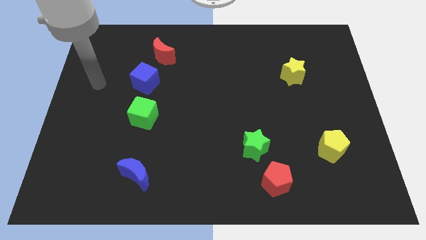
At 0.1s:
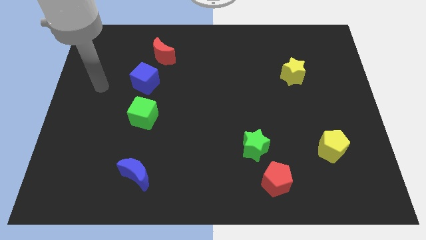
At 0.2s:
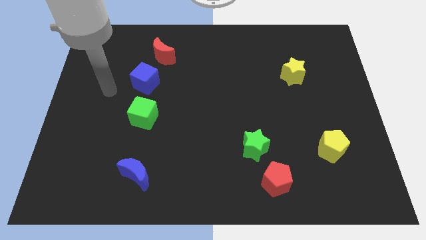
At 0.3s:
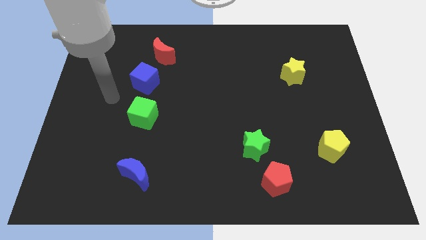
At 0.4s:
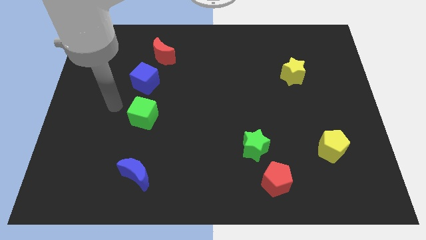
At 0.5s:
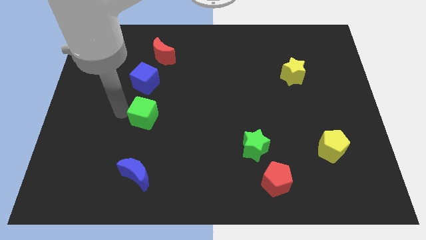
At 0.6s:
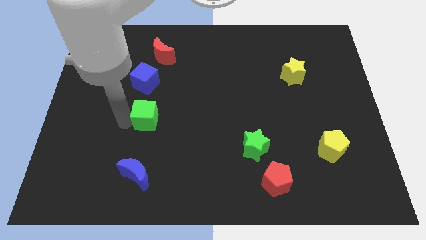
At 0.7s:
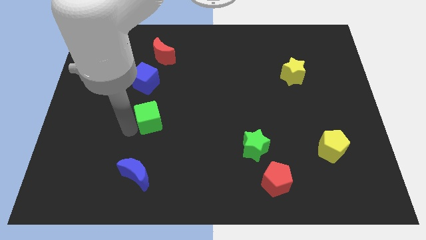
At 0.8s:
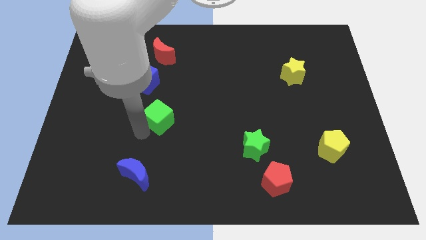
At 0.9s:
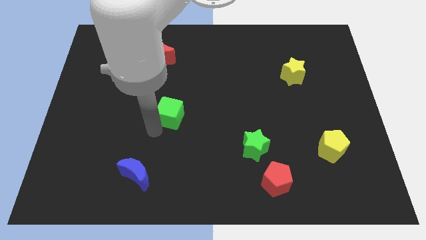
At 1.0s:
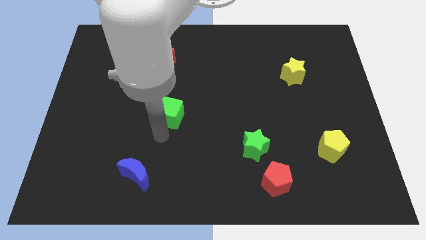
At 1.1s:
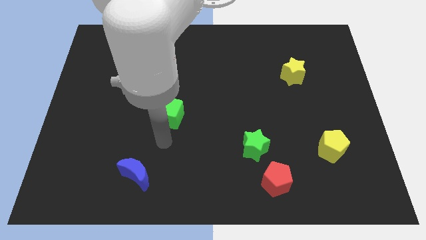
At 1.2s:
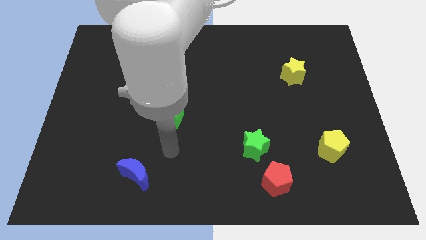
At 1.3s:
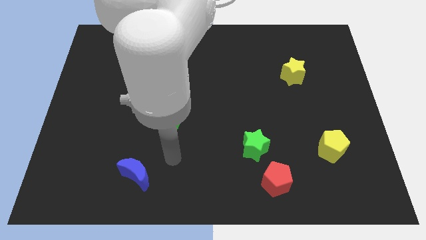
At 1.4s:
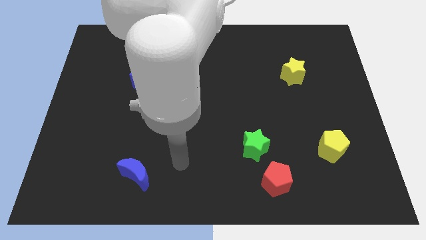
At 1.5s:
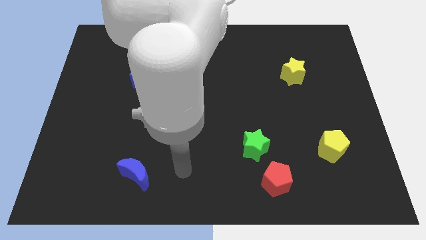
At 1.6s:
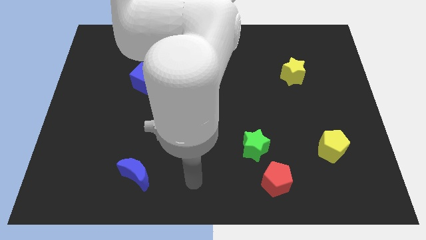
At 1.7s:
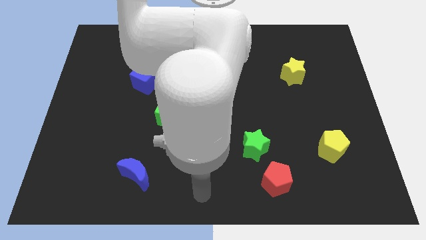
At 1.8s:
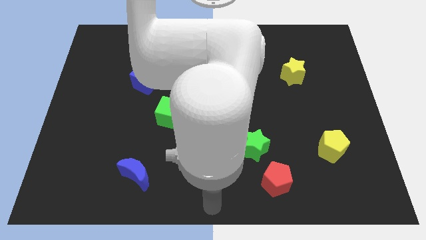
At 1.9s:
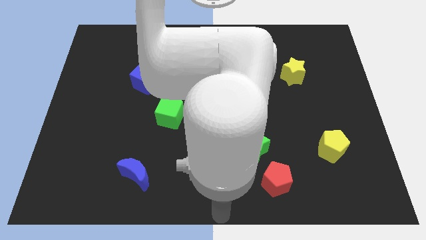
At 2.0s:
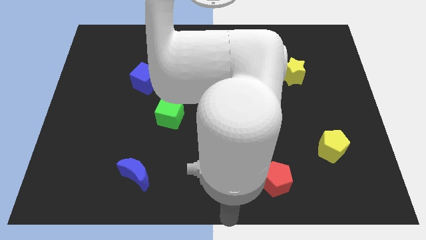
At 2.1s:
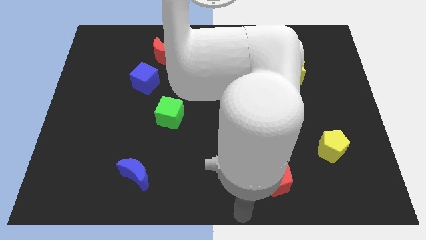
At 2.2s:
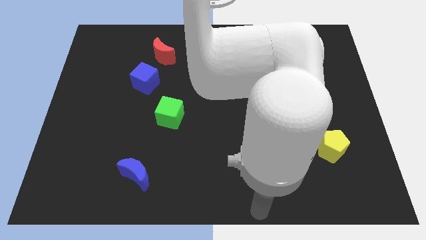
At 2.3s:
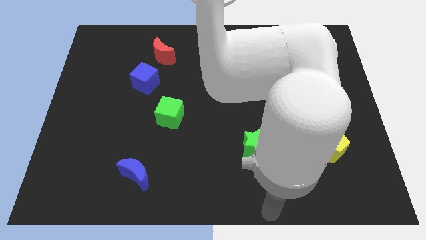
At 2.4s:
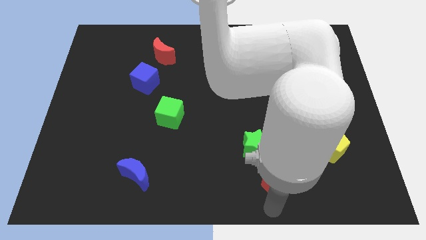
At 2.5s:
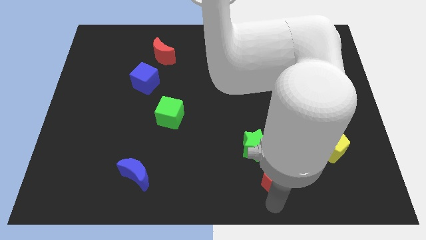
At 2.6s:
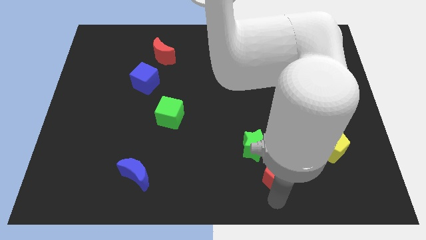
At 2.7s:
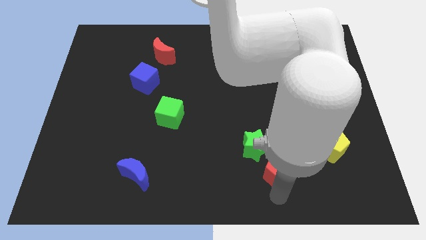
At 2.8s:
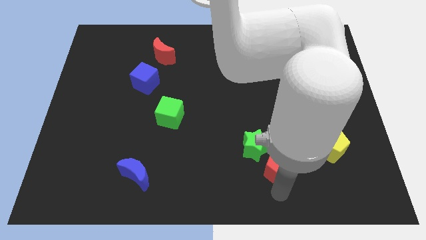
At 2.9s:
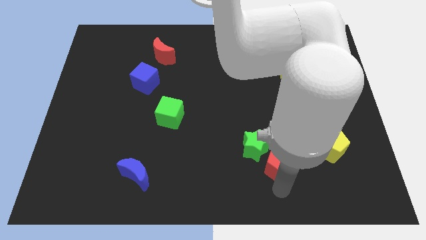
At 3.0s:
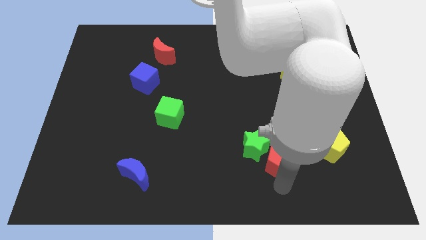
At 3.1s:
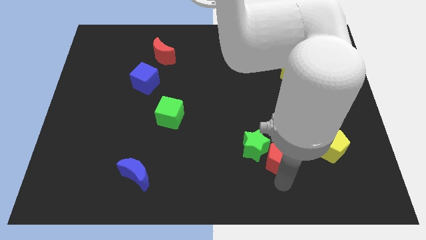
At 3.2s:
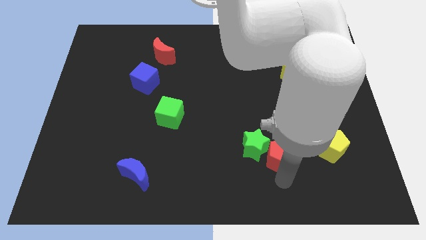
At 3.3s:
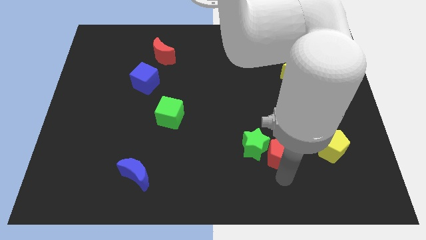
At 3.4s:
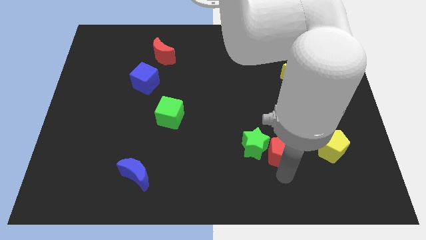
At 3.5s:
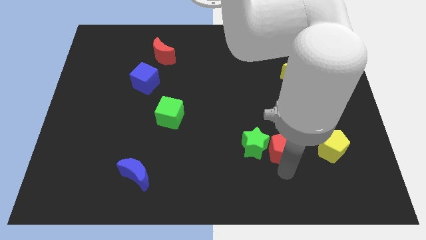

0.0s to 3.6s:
slightly slide the red pentagon up

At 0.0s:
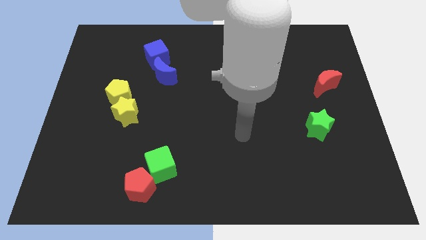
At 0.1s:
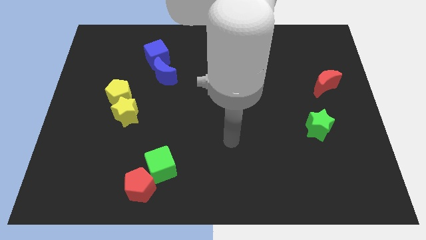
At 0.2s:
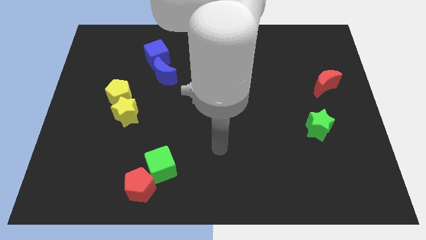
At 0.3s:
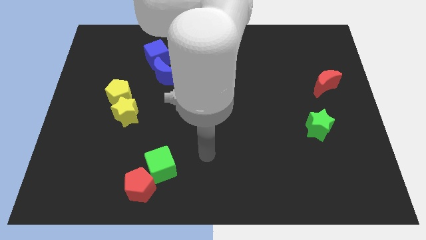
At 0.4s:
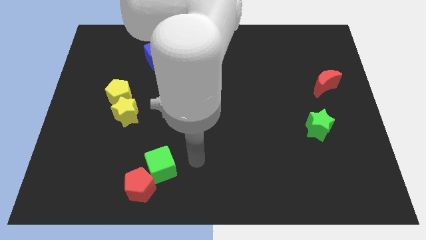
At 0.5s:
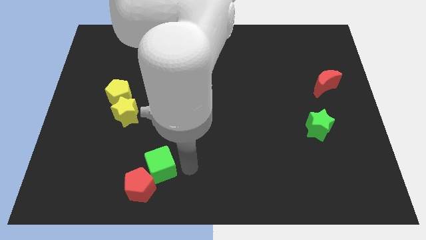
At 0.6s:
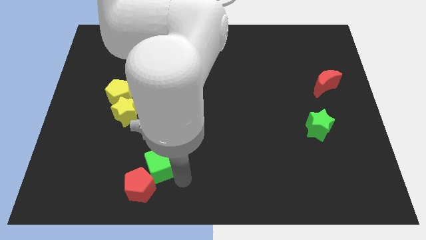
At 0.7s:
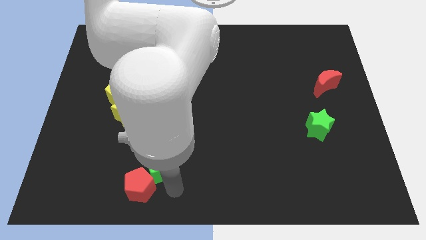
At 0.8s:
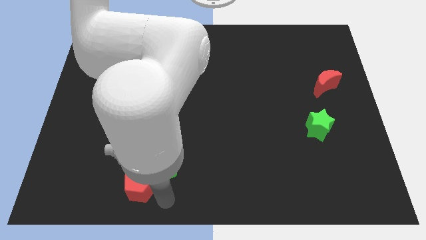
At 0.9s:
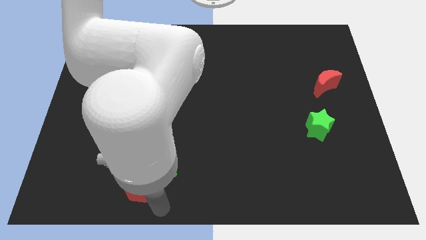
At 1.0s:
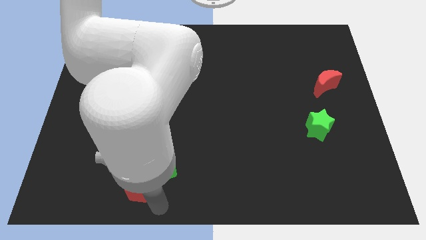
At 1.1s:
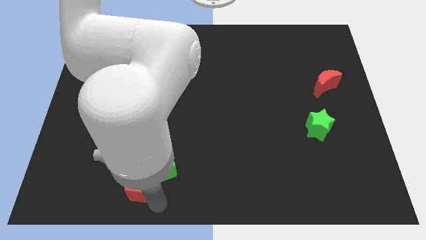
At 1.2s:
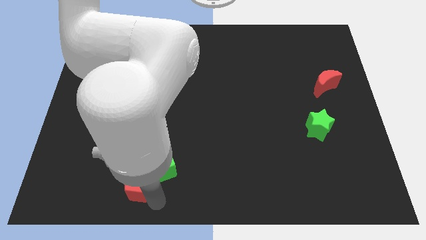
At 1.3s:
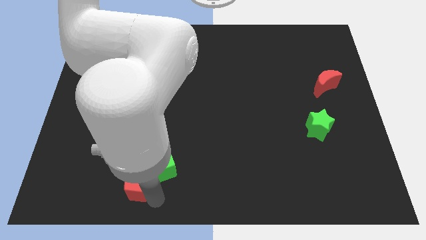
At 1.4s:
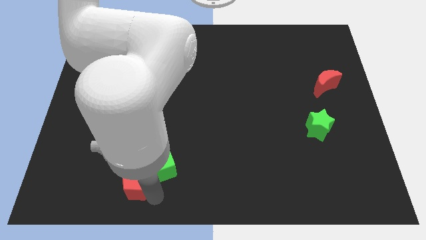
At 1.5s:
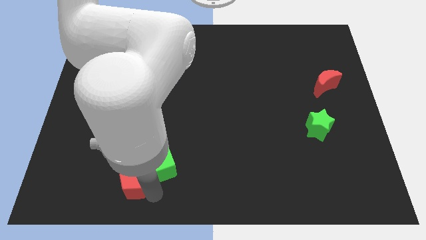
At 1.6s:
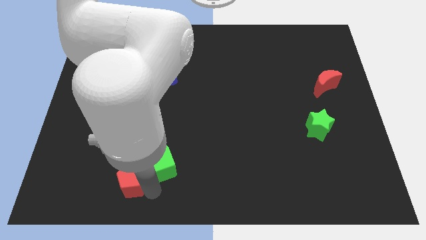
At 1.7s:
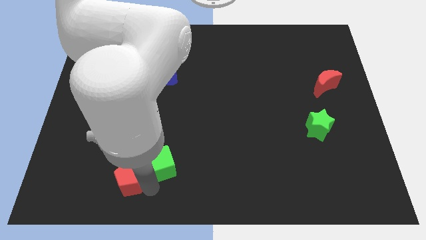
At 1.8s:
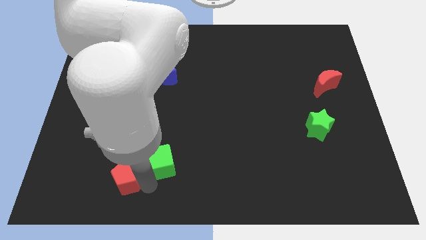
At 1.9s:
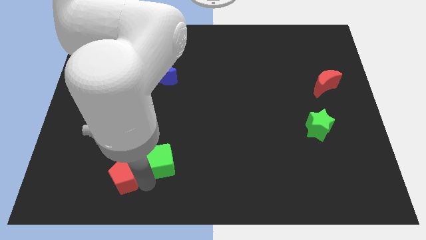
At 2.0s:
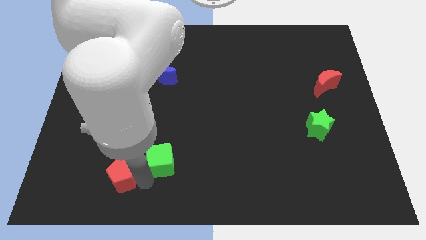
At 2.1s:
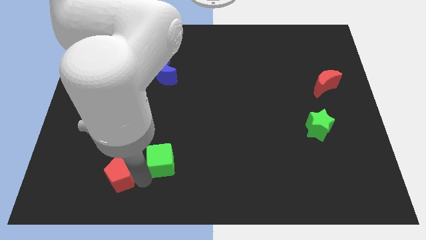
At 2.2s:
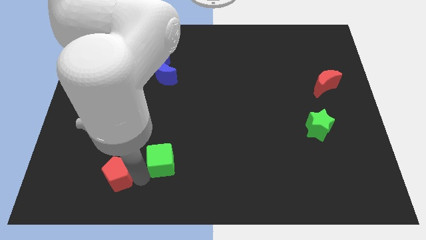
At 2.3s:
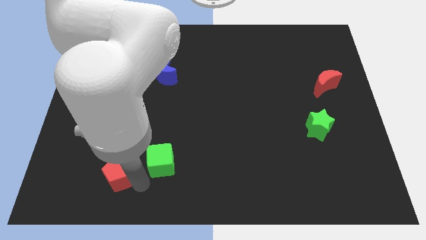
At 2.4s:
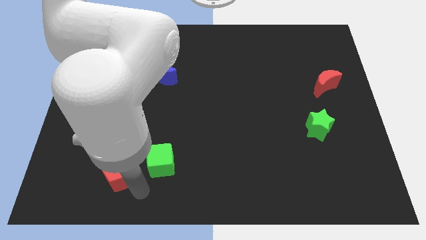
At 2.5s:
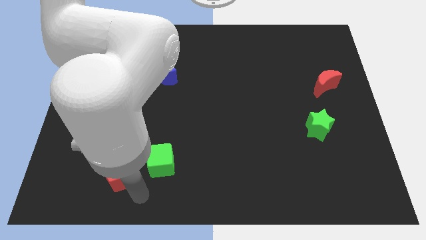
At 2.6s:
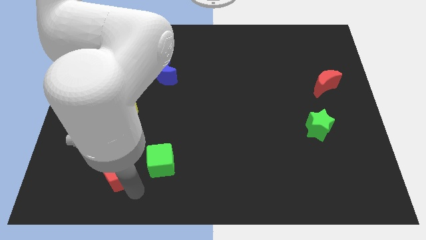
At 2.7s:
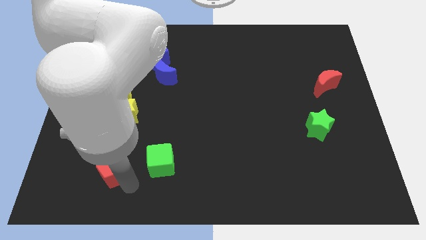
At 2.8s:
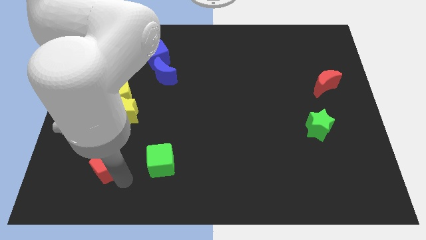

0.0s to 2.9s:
move the red pentagon diagonally upwards and to the left somewhat

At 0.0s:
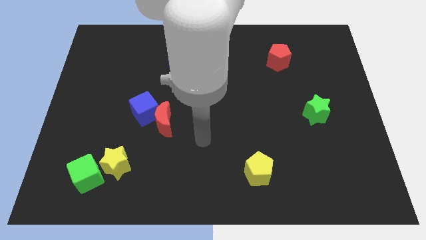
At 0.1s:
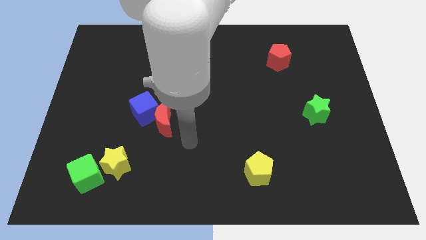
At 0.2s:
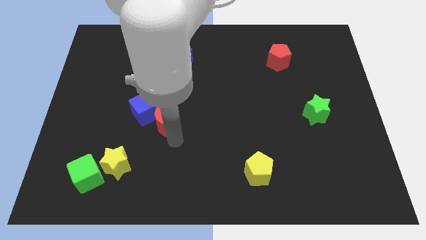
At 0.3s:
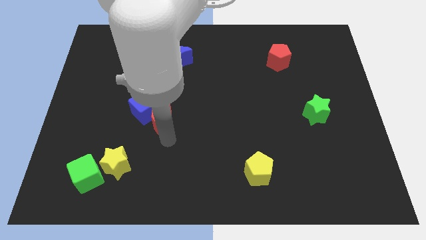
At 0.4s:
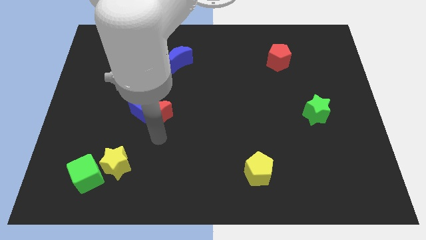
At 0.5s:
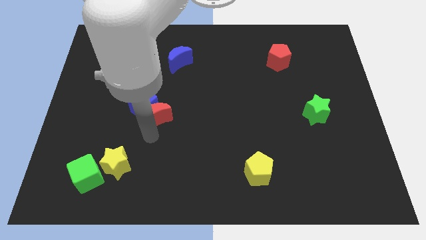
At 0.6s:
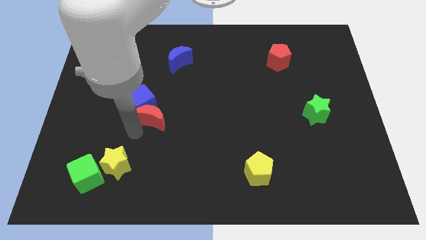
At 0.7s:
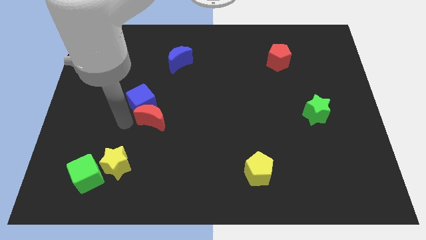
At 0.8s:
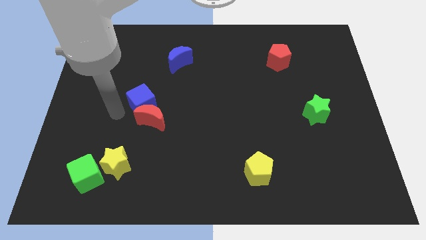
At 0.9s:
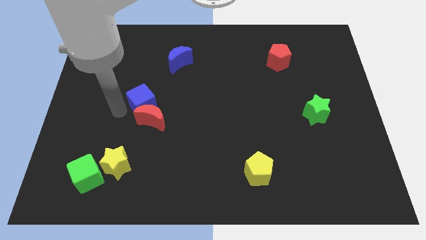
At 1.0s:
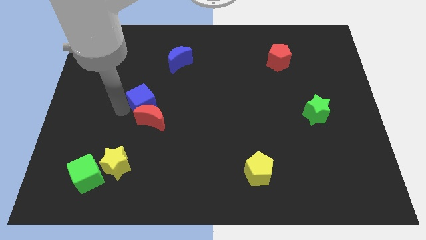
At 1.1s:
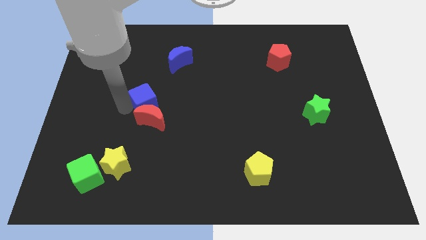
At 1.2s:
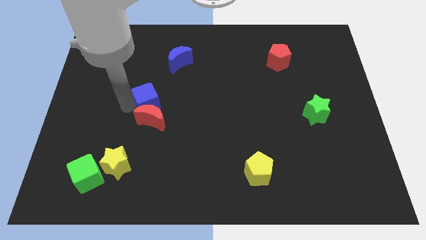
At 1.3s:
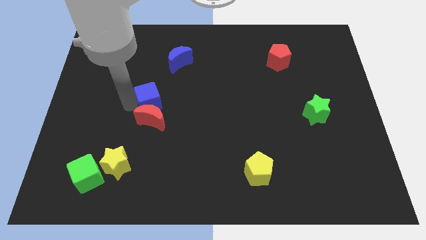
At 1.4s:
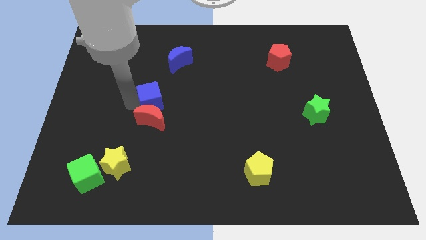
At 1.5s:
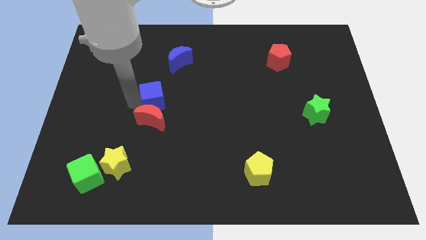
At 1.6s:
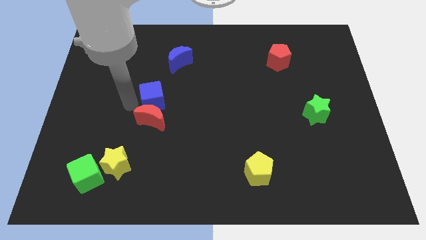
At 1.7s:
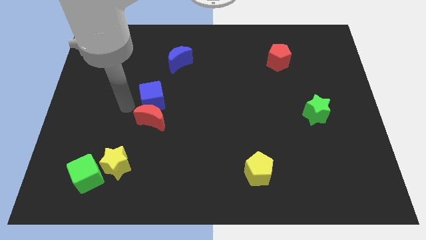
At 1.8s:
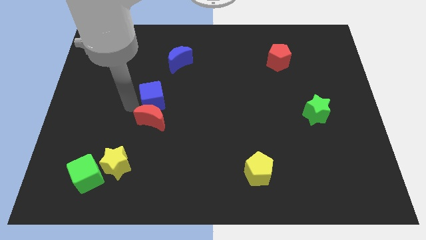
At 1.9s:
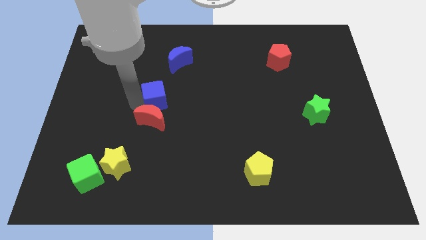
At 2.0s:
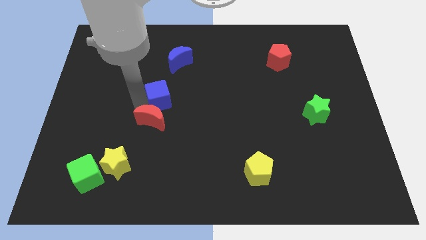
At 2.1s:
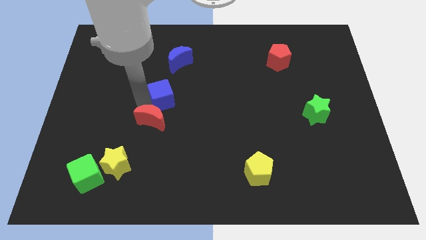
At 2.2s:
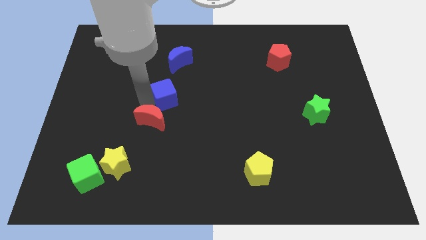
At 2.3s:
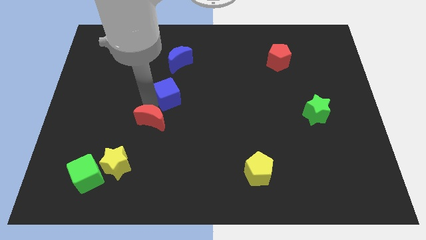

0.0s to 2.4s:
move the blue cube a little bit upwards and then right
